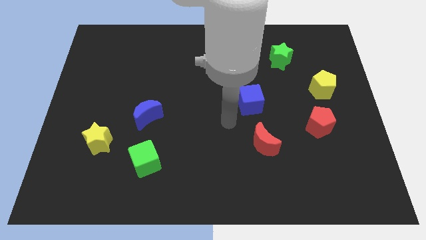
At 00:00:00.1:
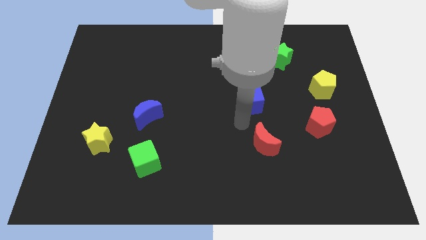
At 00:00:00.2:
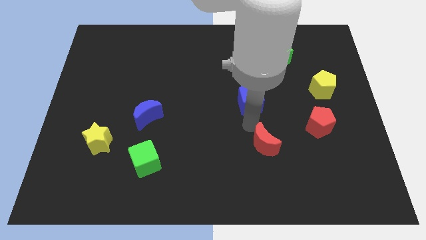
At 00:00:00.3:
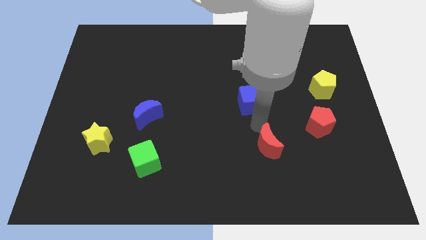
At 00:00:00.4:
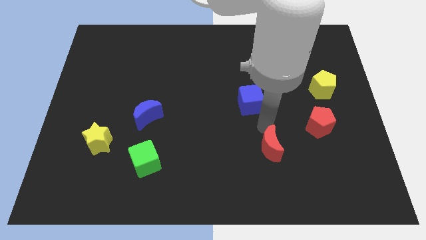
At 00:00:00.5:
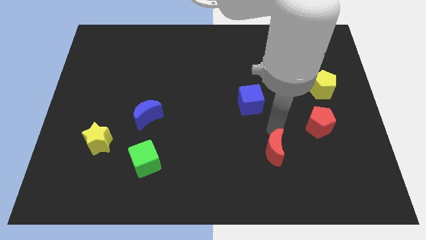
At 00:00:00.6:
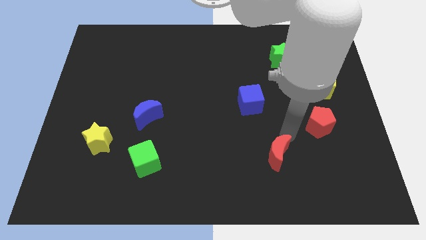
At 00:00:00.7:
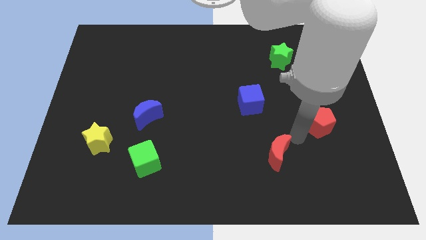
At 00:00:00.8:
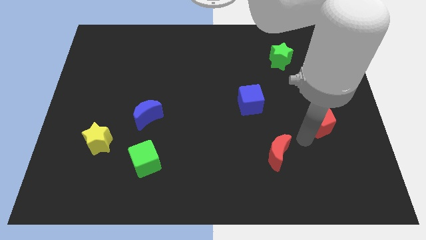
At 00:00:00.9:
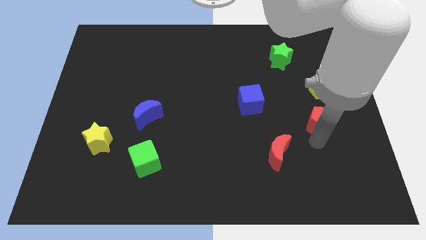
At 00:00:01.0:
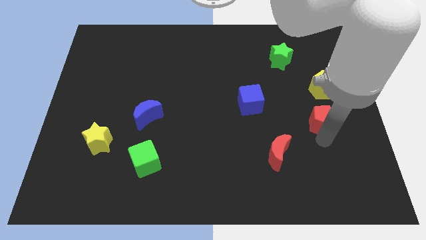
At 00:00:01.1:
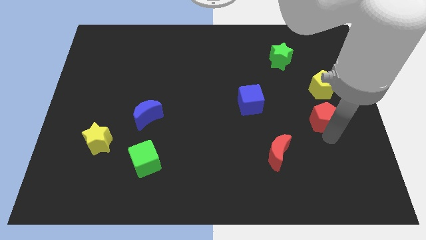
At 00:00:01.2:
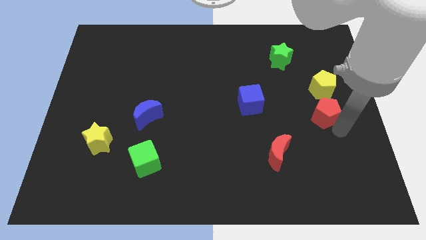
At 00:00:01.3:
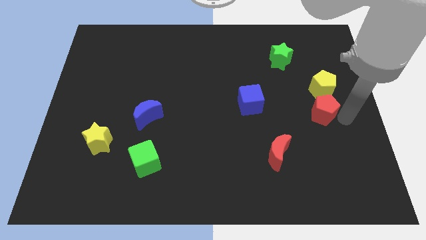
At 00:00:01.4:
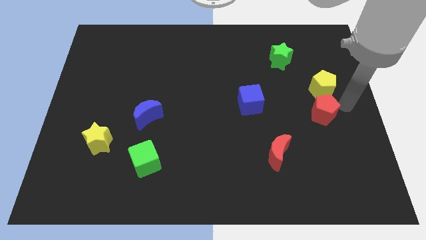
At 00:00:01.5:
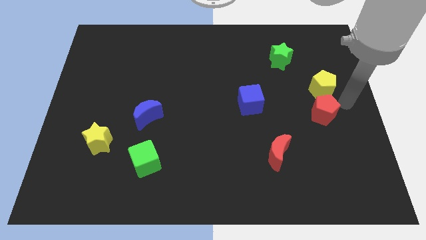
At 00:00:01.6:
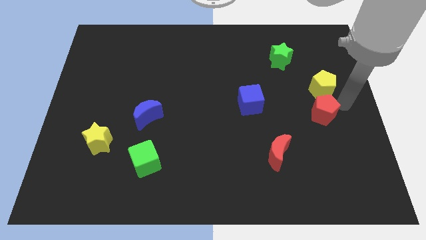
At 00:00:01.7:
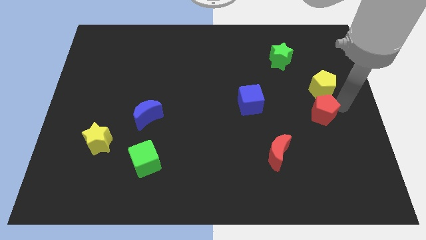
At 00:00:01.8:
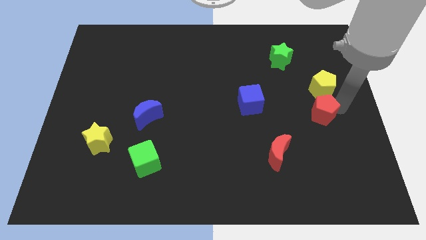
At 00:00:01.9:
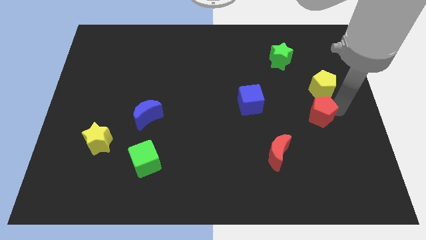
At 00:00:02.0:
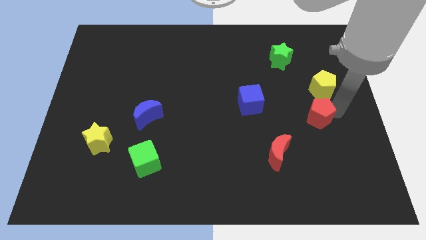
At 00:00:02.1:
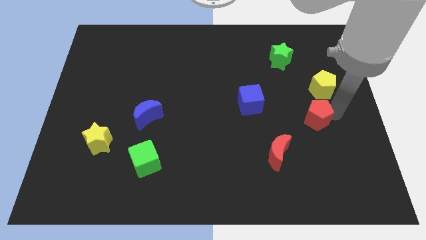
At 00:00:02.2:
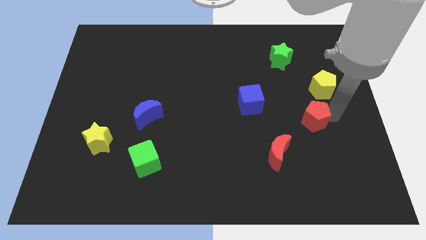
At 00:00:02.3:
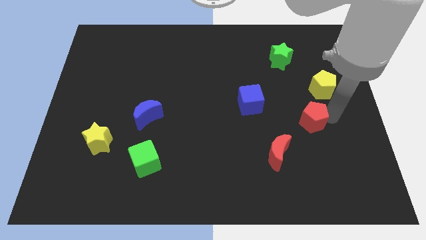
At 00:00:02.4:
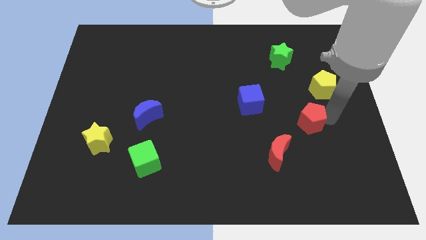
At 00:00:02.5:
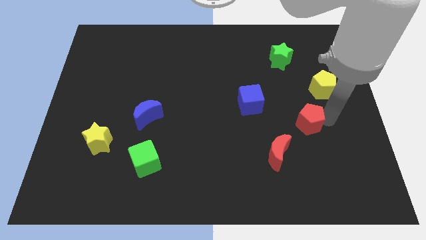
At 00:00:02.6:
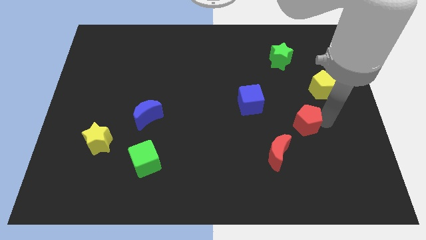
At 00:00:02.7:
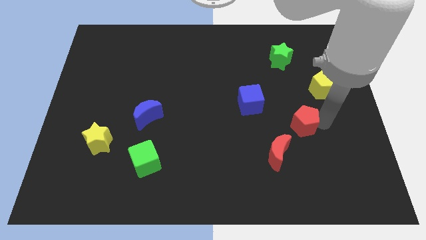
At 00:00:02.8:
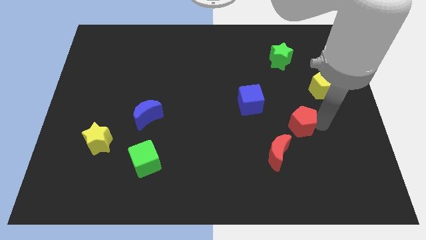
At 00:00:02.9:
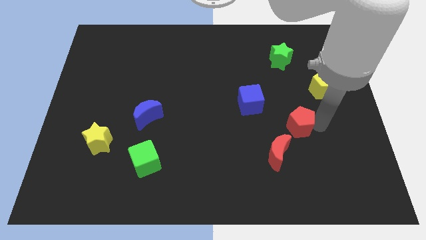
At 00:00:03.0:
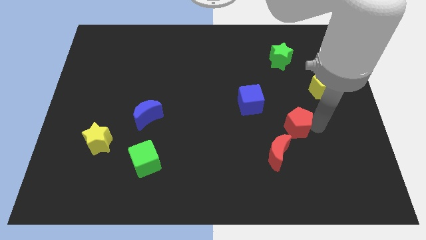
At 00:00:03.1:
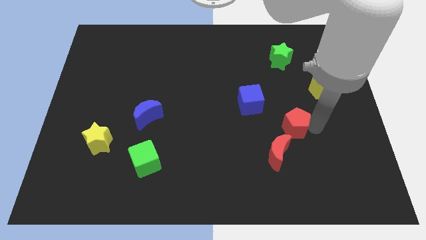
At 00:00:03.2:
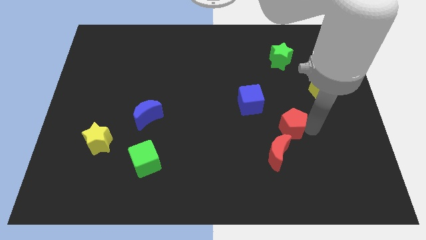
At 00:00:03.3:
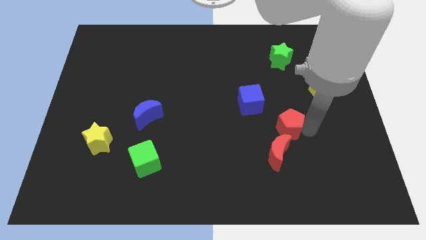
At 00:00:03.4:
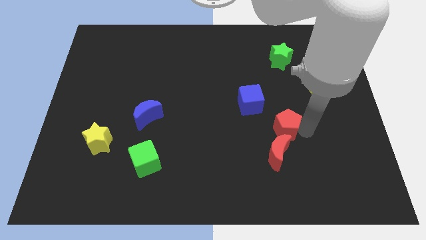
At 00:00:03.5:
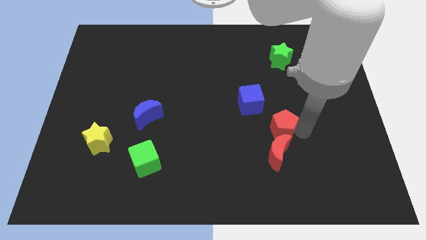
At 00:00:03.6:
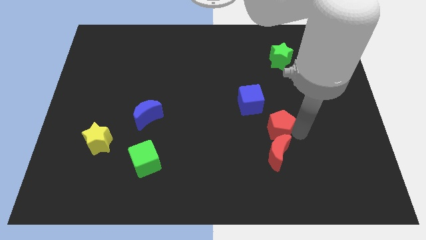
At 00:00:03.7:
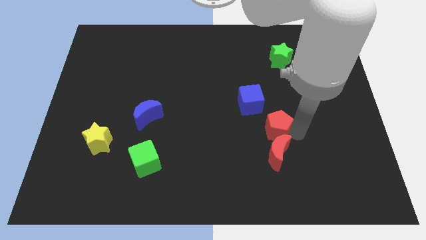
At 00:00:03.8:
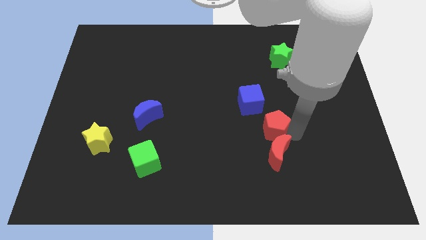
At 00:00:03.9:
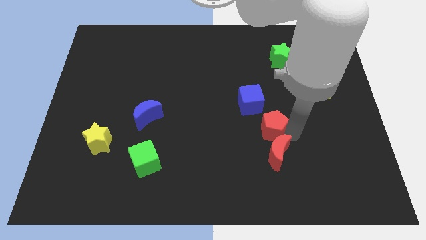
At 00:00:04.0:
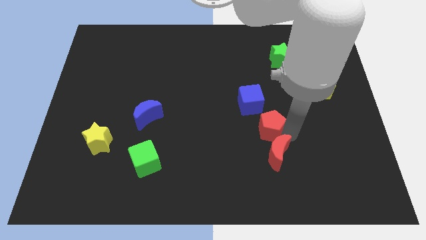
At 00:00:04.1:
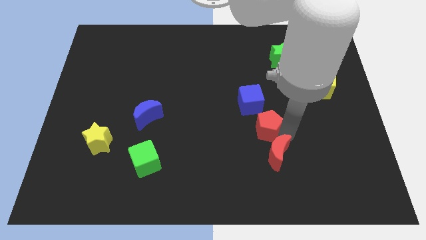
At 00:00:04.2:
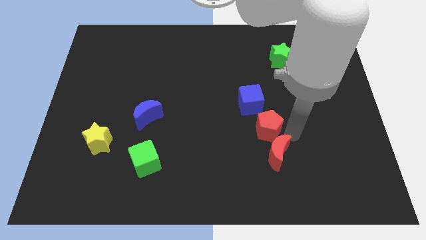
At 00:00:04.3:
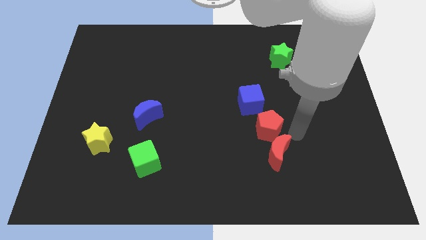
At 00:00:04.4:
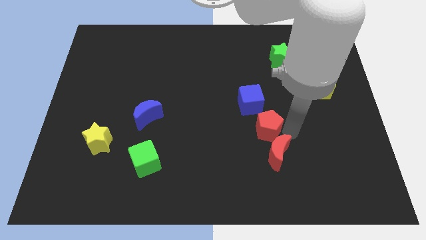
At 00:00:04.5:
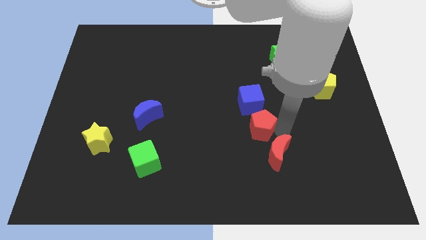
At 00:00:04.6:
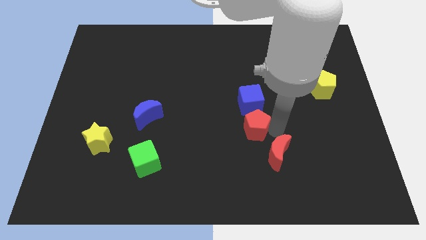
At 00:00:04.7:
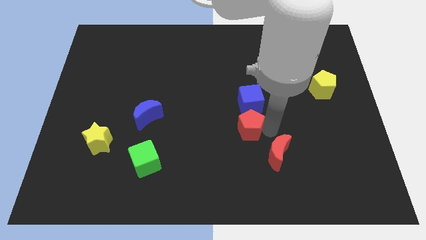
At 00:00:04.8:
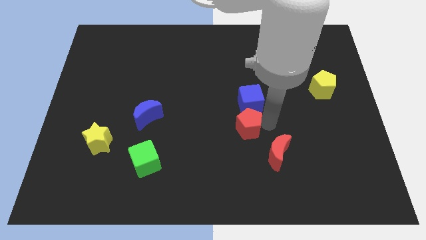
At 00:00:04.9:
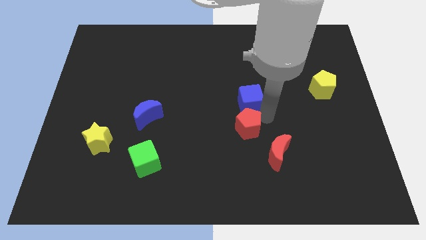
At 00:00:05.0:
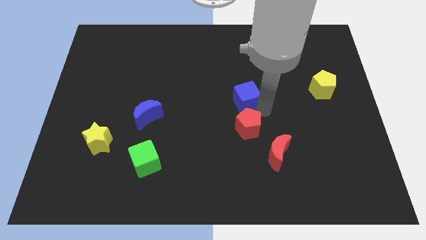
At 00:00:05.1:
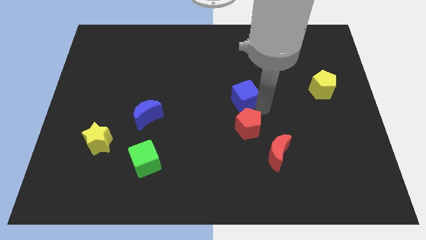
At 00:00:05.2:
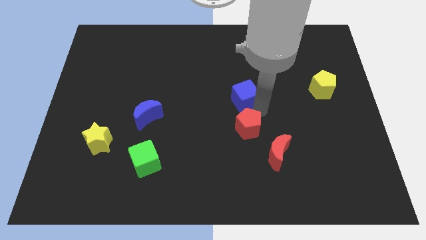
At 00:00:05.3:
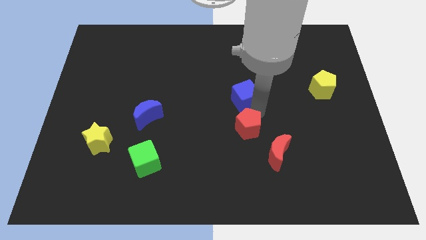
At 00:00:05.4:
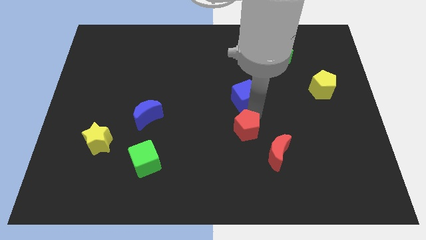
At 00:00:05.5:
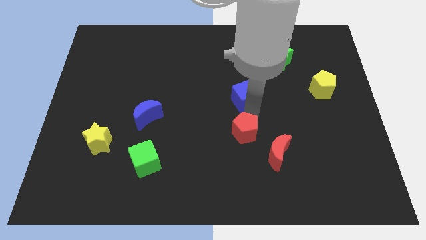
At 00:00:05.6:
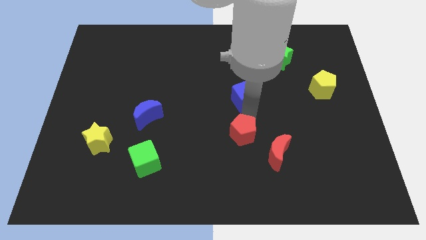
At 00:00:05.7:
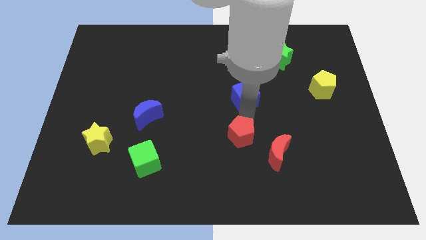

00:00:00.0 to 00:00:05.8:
slide the red pentagon to the left side of the red moon

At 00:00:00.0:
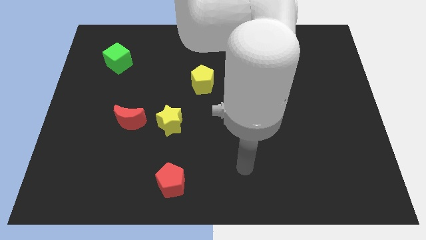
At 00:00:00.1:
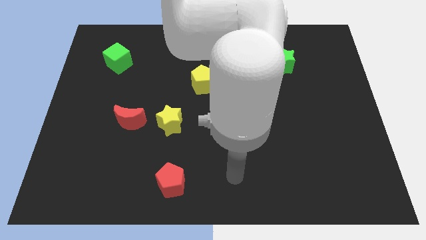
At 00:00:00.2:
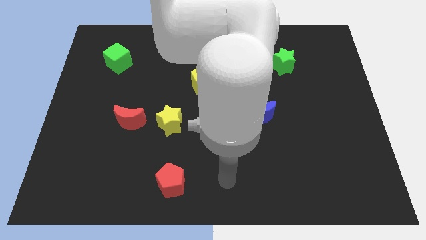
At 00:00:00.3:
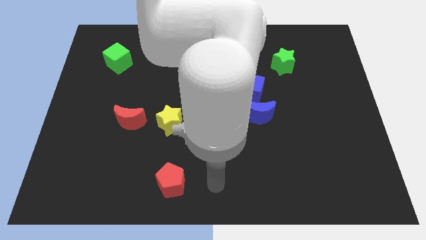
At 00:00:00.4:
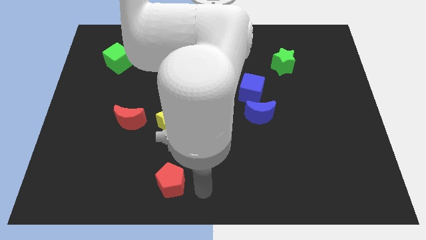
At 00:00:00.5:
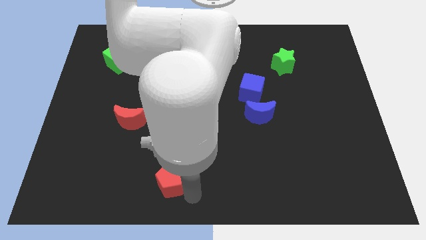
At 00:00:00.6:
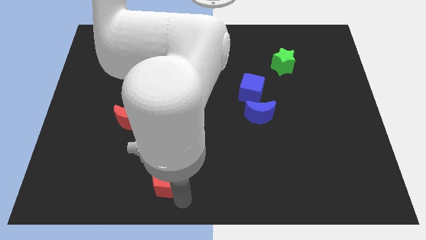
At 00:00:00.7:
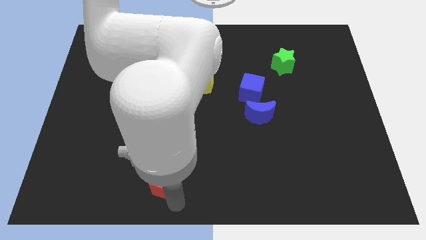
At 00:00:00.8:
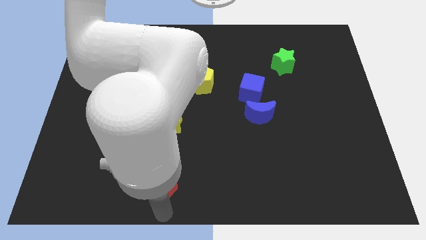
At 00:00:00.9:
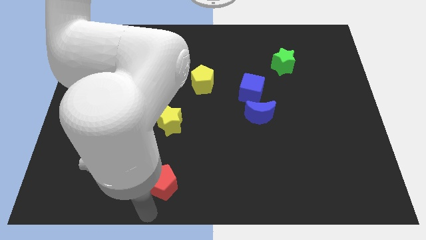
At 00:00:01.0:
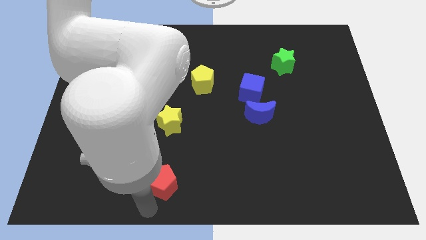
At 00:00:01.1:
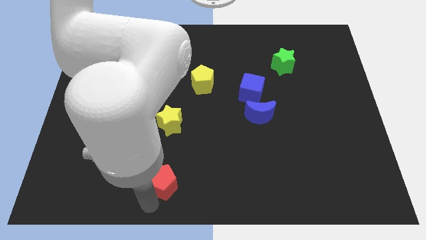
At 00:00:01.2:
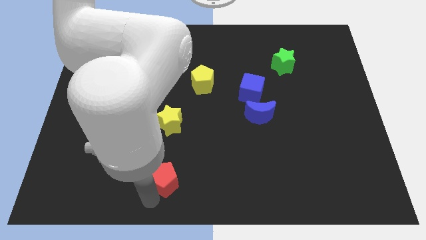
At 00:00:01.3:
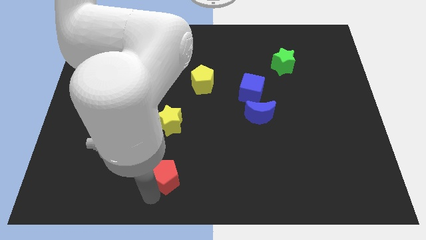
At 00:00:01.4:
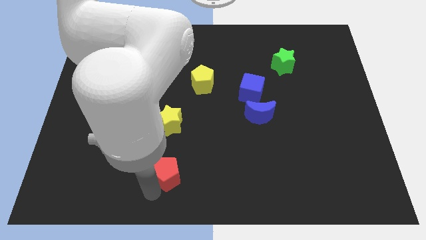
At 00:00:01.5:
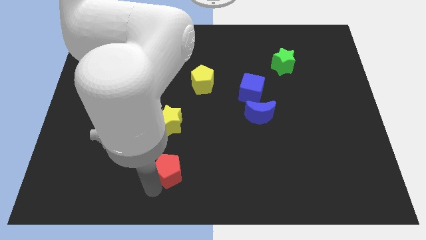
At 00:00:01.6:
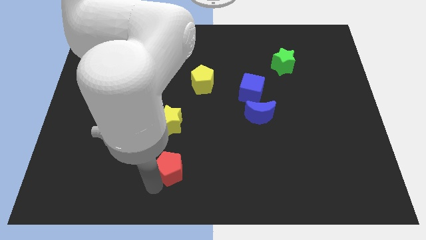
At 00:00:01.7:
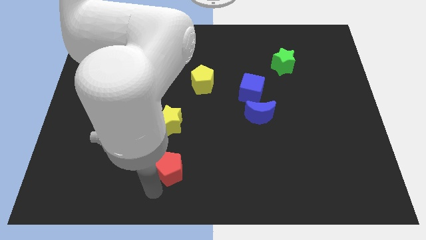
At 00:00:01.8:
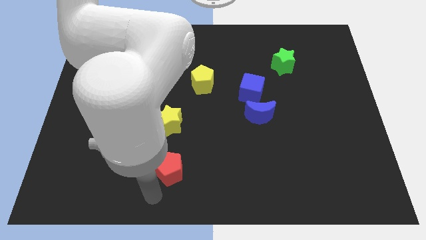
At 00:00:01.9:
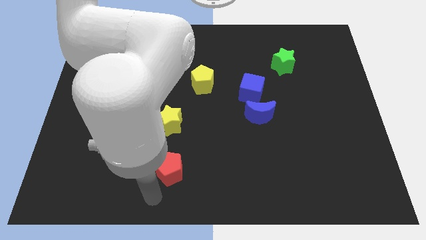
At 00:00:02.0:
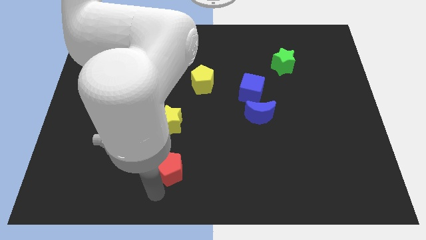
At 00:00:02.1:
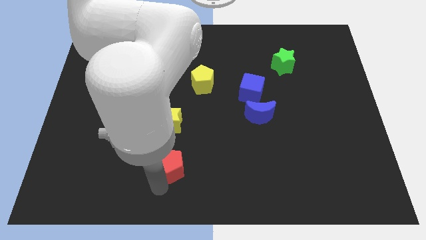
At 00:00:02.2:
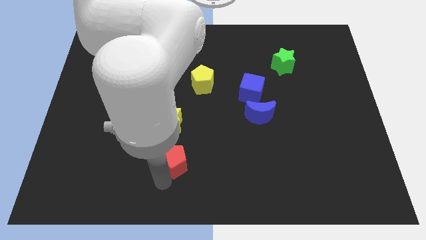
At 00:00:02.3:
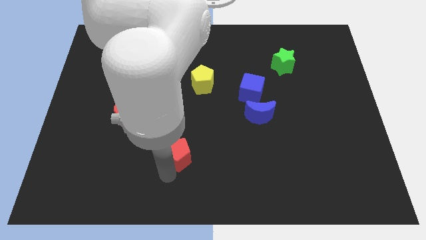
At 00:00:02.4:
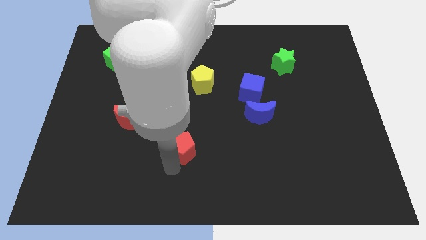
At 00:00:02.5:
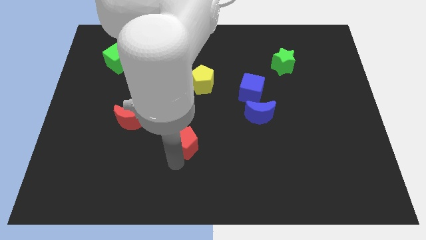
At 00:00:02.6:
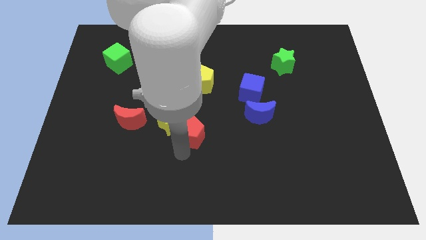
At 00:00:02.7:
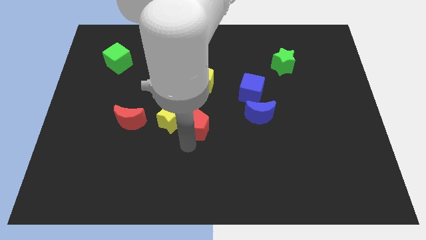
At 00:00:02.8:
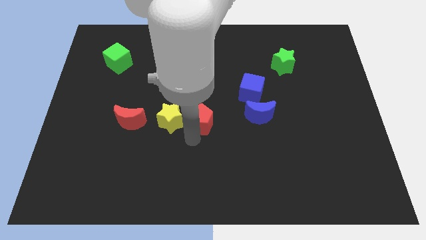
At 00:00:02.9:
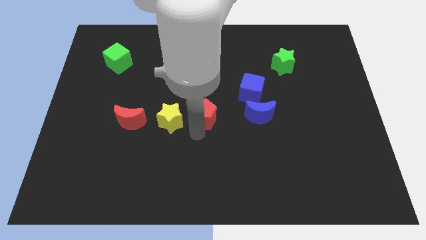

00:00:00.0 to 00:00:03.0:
put the red pentagon diagonally up and to the right of the yellow star
